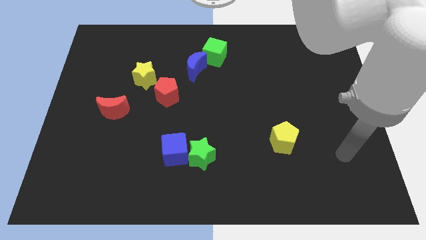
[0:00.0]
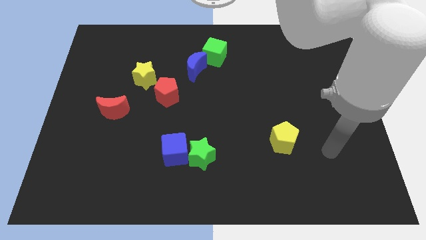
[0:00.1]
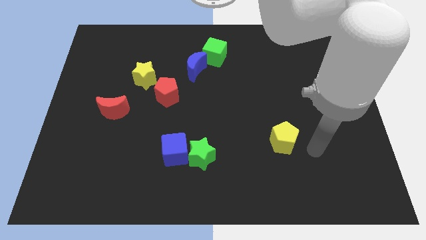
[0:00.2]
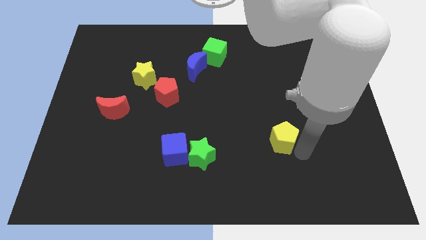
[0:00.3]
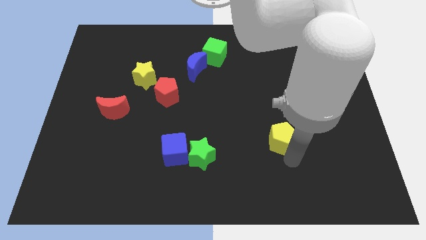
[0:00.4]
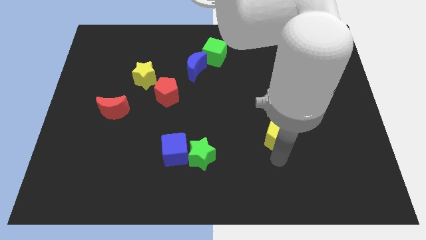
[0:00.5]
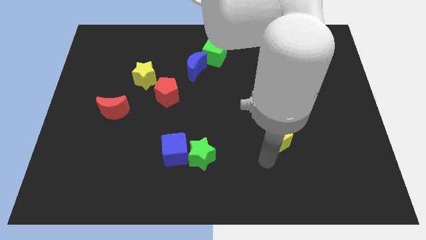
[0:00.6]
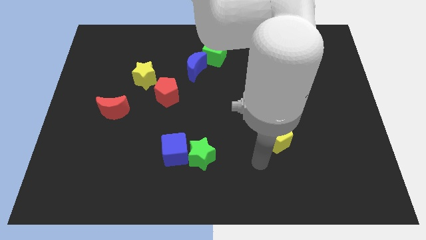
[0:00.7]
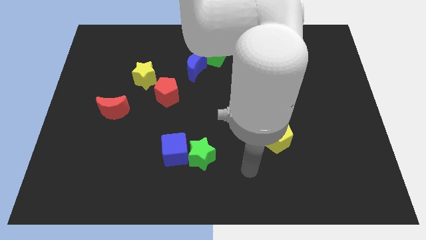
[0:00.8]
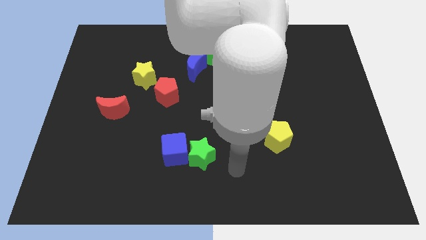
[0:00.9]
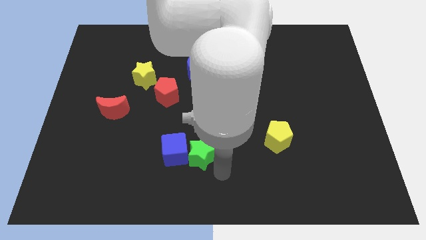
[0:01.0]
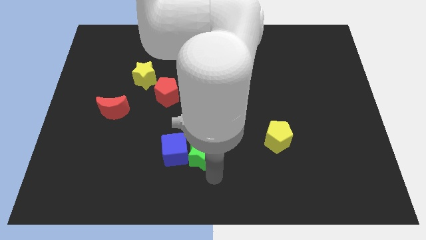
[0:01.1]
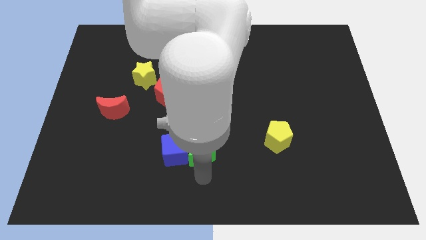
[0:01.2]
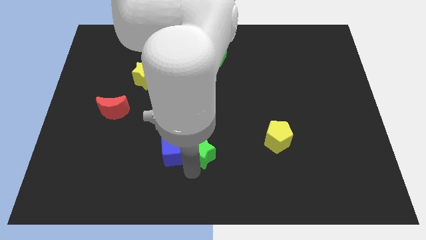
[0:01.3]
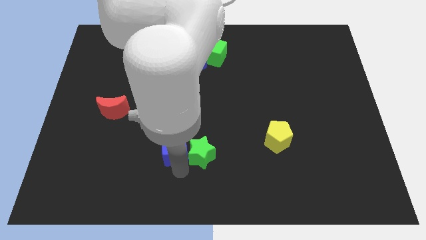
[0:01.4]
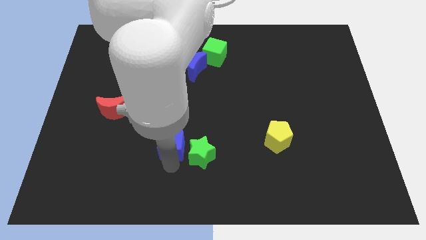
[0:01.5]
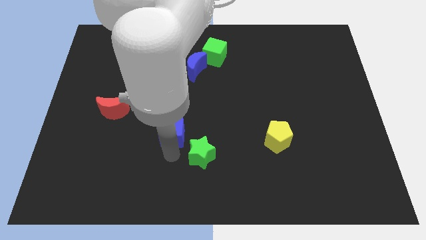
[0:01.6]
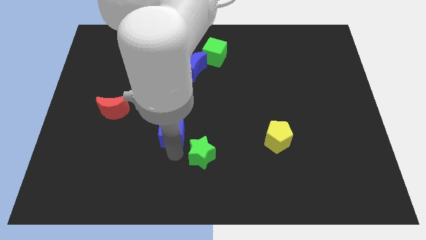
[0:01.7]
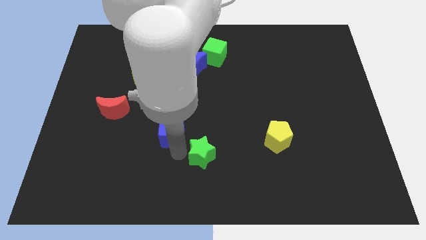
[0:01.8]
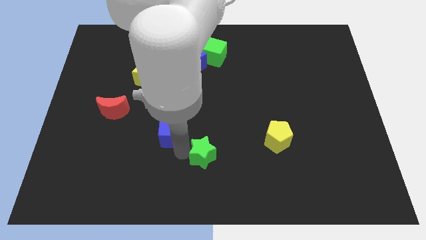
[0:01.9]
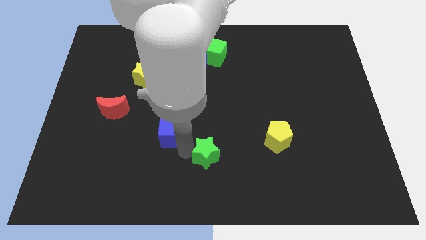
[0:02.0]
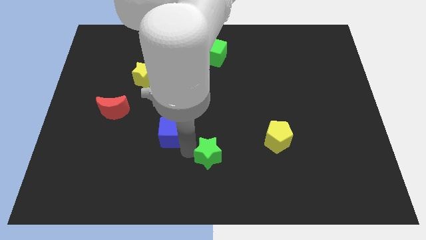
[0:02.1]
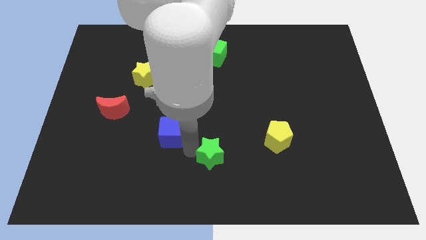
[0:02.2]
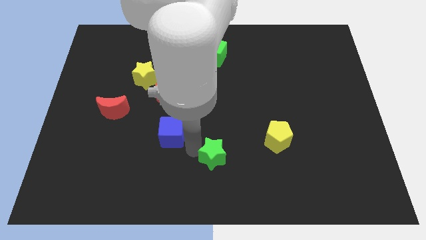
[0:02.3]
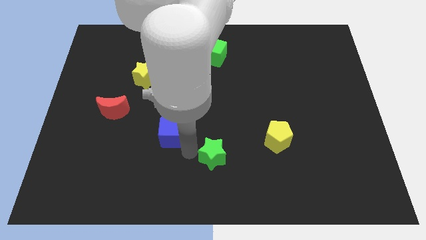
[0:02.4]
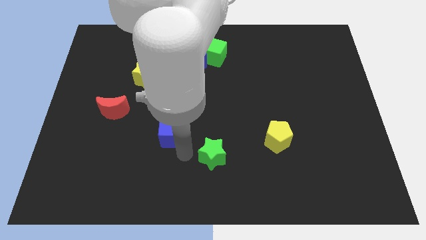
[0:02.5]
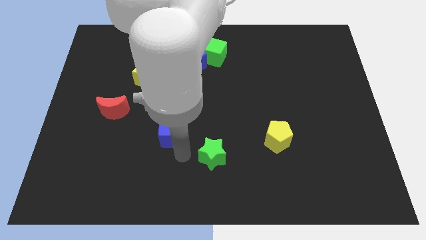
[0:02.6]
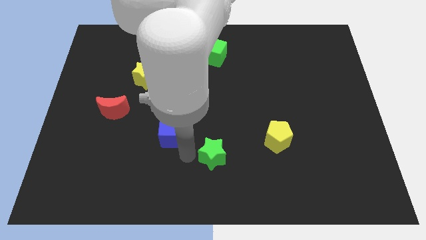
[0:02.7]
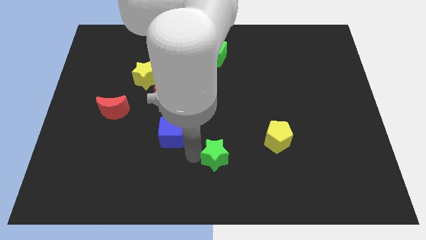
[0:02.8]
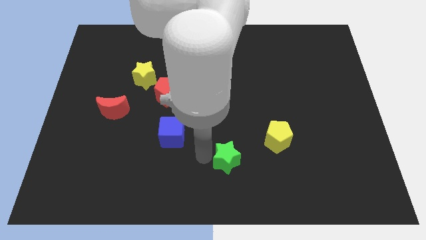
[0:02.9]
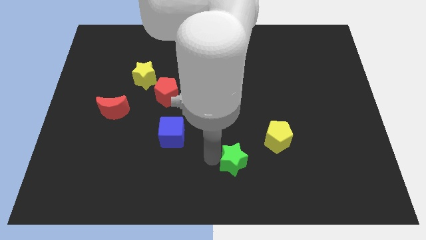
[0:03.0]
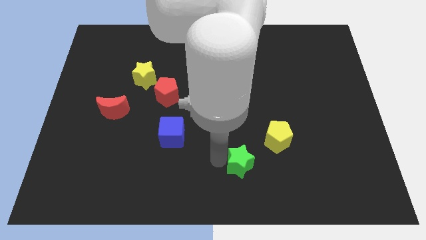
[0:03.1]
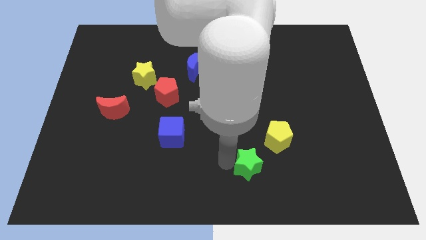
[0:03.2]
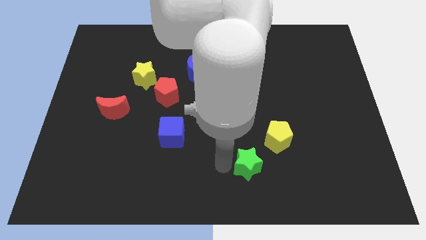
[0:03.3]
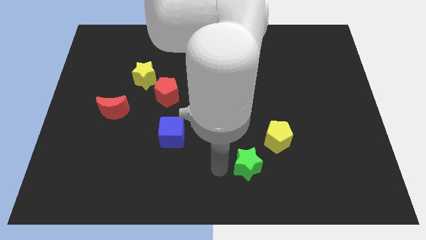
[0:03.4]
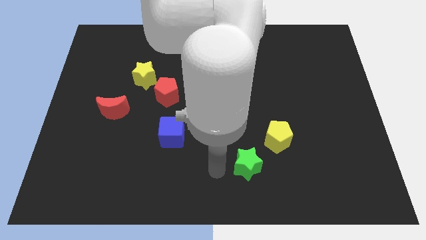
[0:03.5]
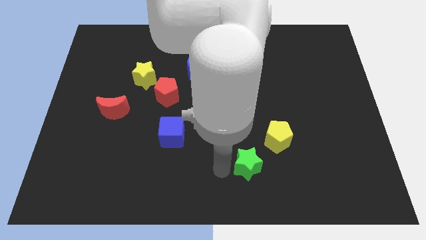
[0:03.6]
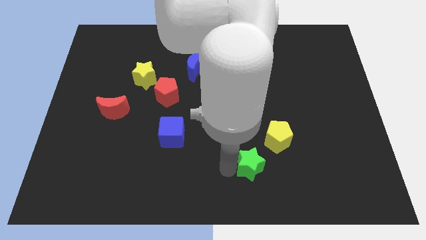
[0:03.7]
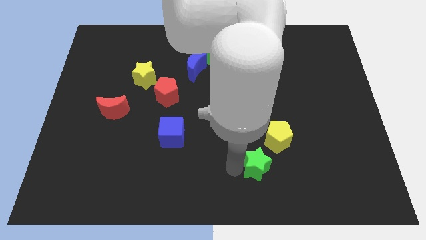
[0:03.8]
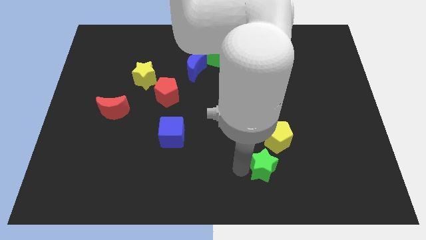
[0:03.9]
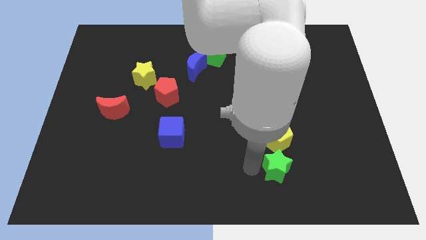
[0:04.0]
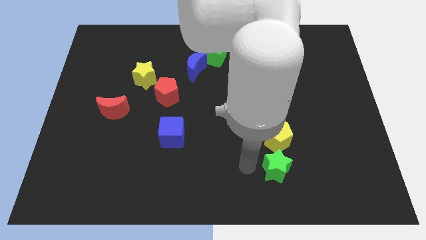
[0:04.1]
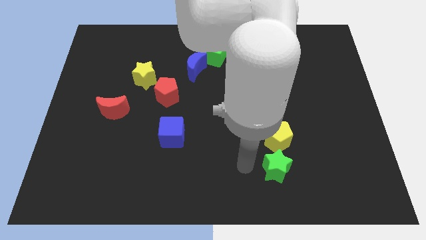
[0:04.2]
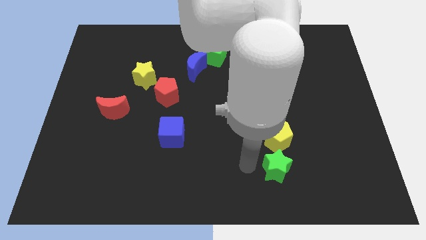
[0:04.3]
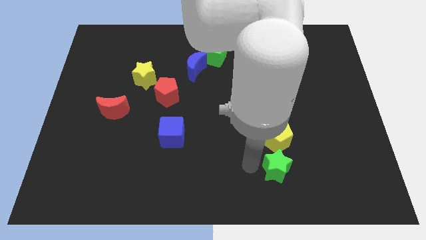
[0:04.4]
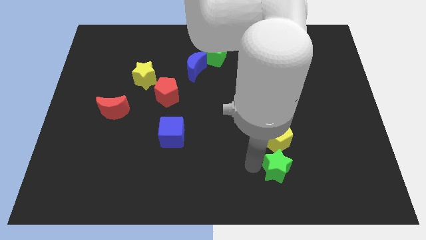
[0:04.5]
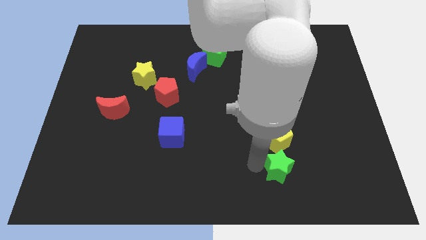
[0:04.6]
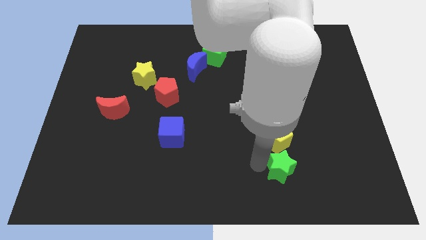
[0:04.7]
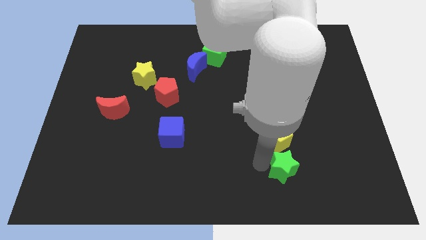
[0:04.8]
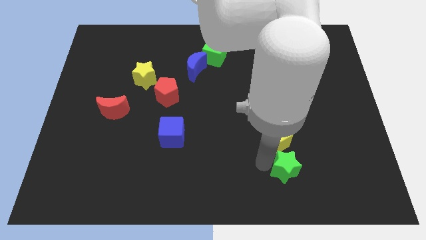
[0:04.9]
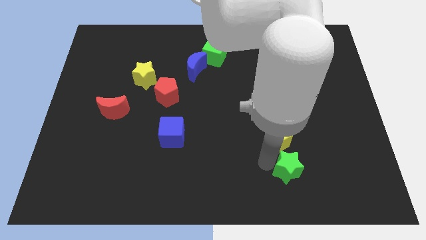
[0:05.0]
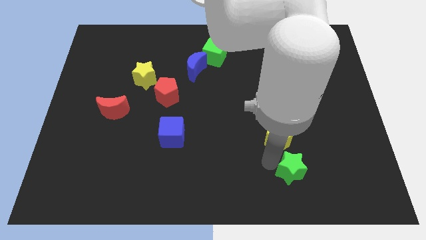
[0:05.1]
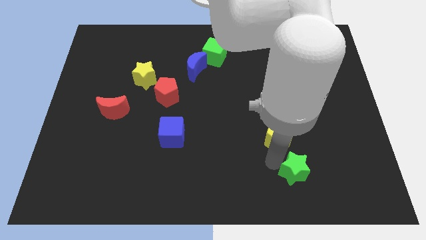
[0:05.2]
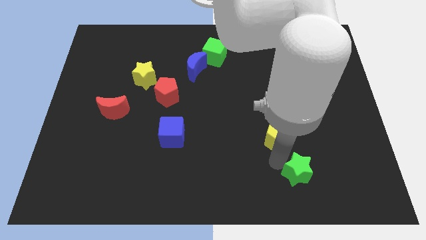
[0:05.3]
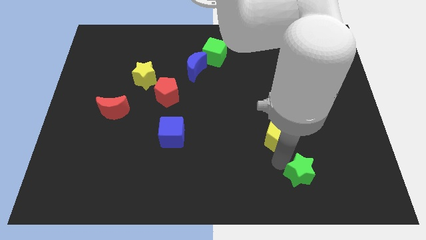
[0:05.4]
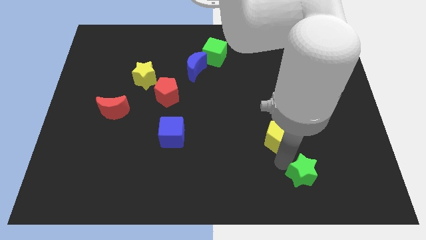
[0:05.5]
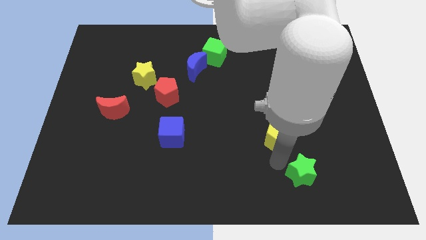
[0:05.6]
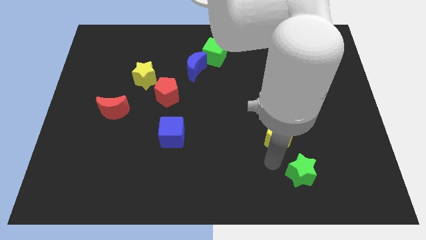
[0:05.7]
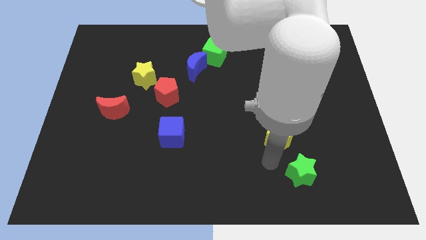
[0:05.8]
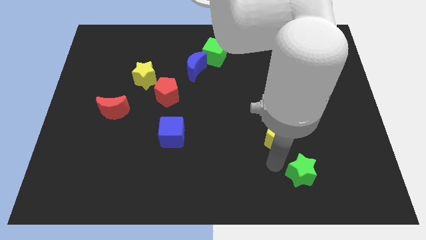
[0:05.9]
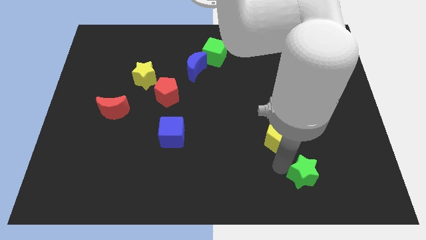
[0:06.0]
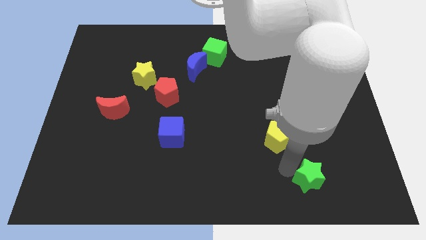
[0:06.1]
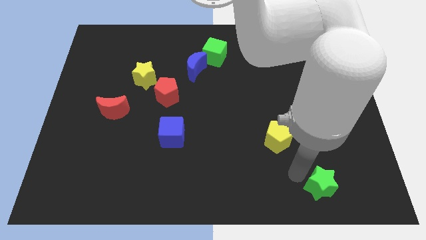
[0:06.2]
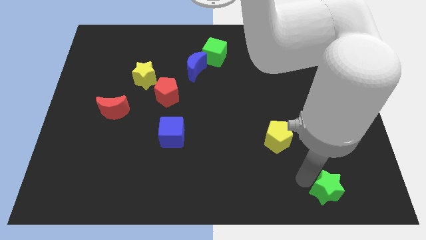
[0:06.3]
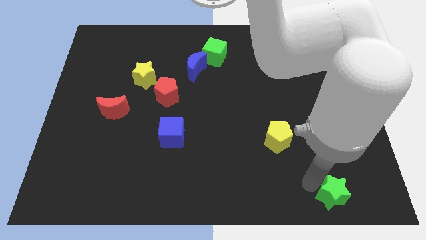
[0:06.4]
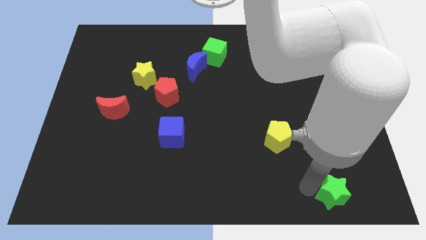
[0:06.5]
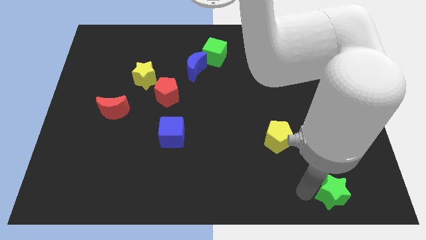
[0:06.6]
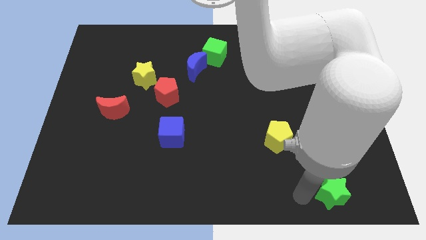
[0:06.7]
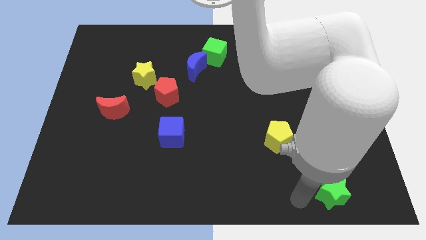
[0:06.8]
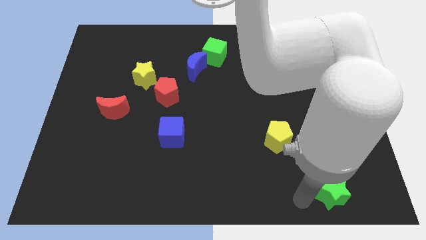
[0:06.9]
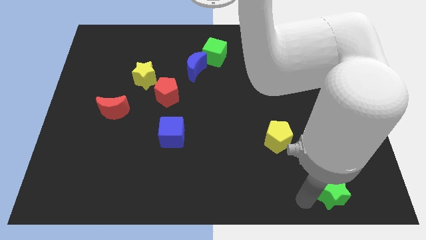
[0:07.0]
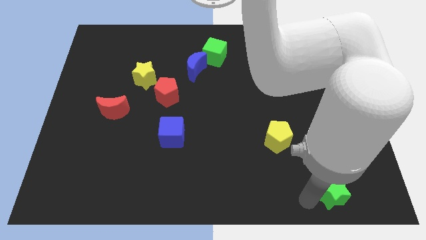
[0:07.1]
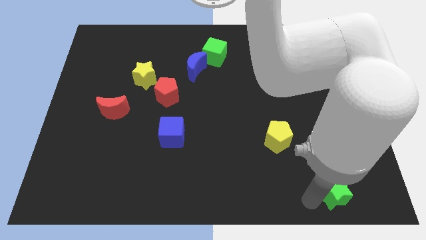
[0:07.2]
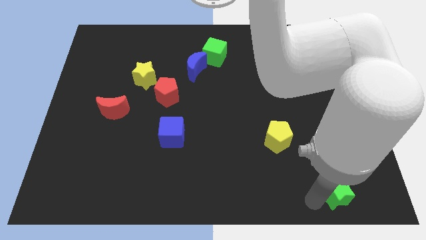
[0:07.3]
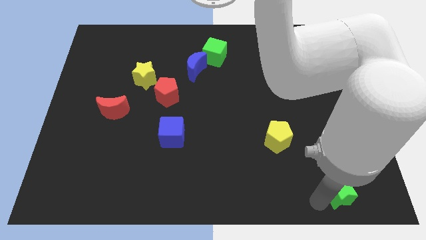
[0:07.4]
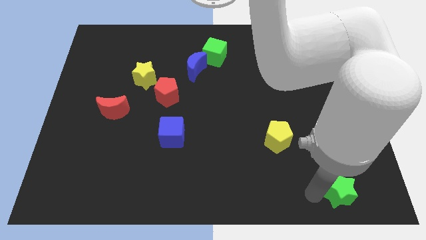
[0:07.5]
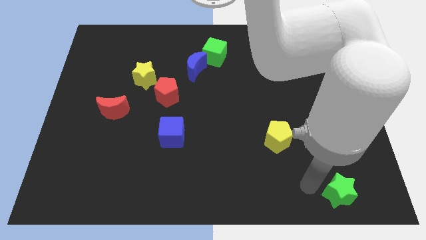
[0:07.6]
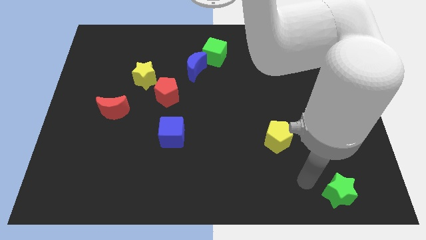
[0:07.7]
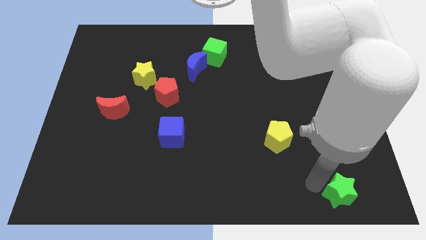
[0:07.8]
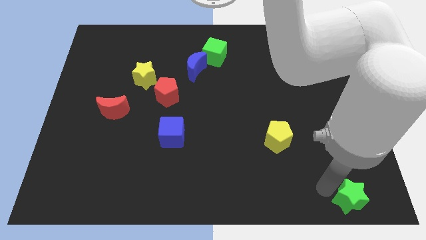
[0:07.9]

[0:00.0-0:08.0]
slide the green star to the bottom right corner
